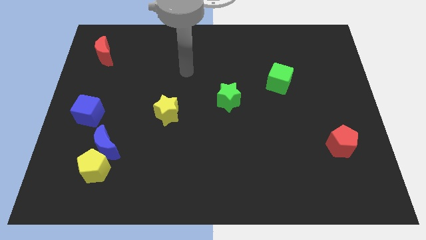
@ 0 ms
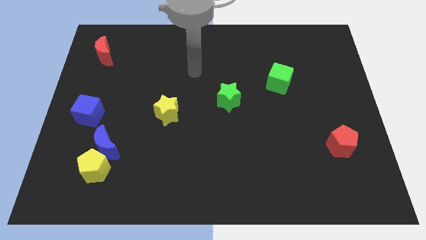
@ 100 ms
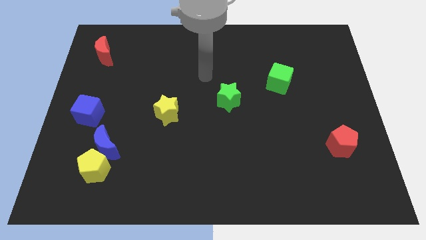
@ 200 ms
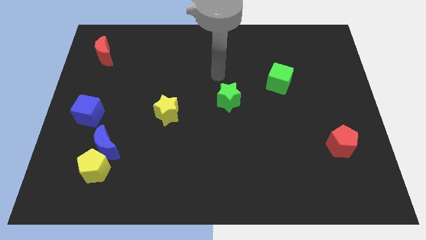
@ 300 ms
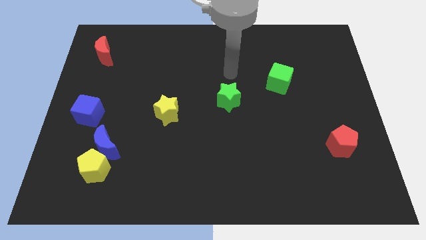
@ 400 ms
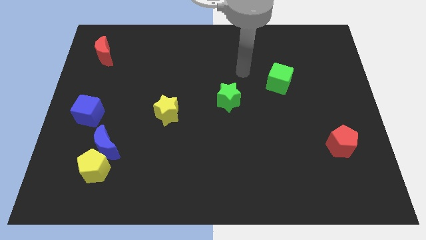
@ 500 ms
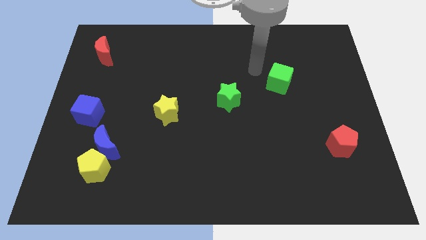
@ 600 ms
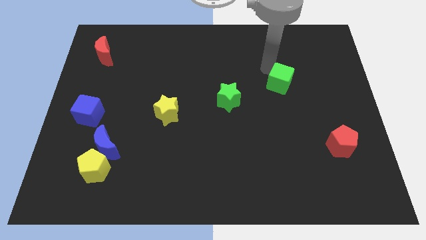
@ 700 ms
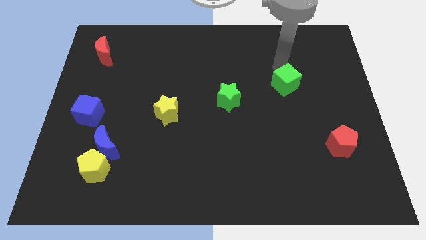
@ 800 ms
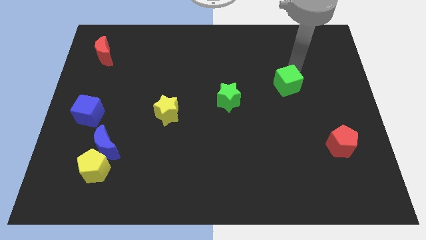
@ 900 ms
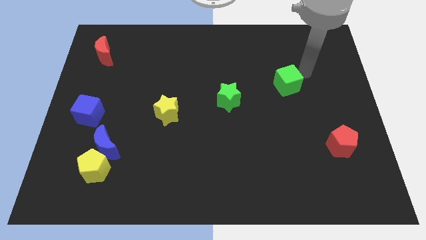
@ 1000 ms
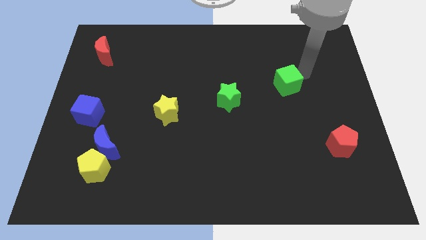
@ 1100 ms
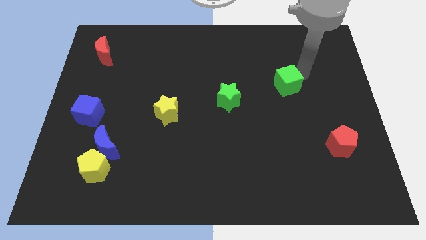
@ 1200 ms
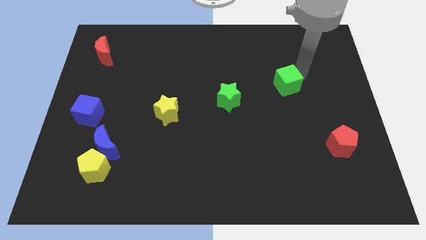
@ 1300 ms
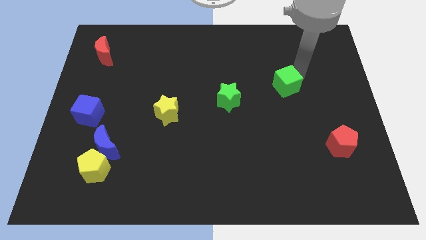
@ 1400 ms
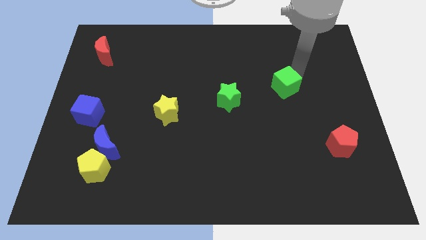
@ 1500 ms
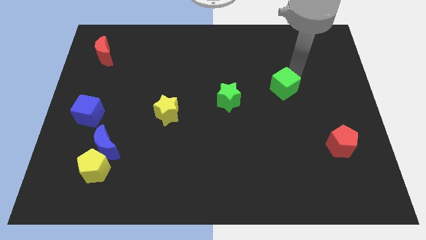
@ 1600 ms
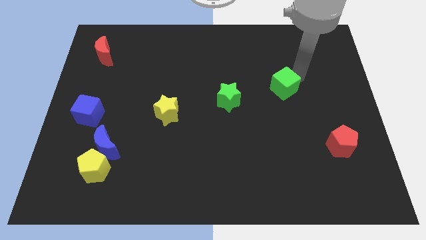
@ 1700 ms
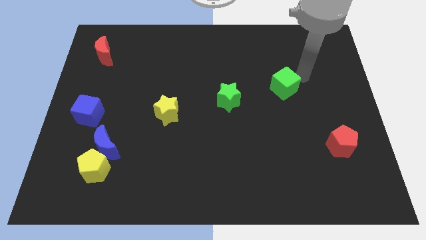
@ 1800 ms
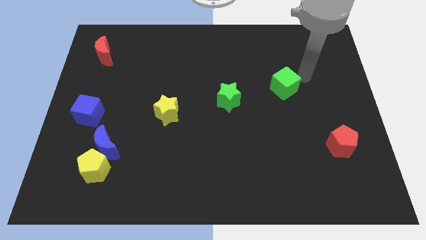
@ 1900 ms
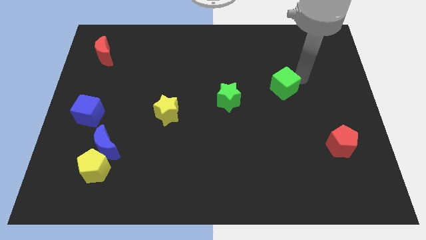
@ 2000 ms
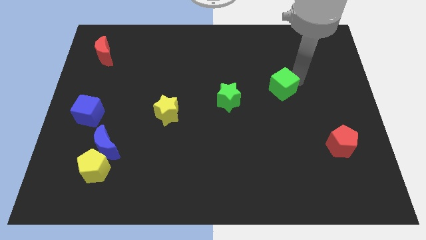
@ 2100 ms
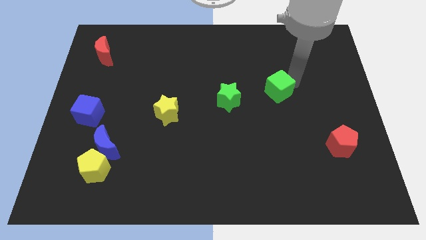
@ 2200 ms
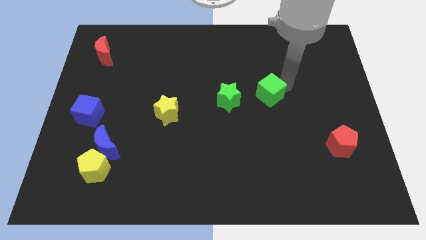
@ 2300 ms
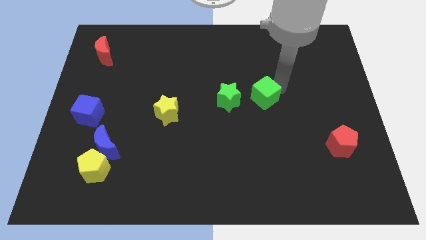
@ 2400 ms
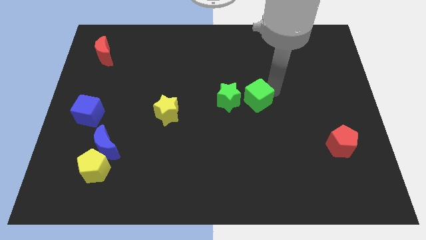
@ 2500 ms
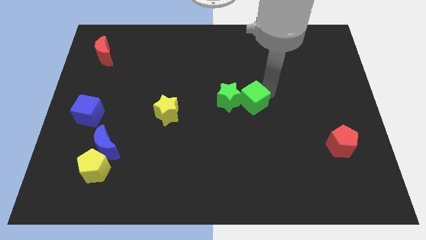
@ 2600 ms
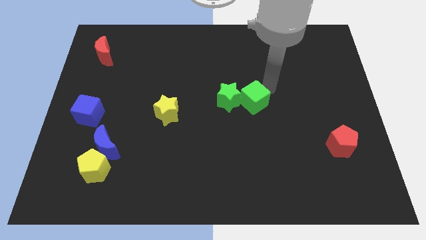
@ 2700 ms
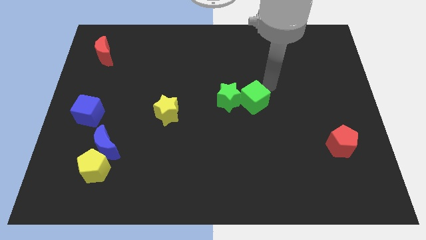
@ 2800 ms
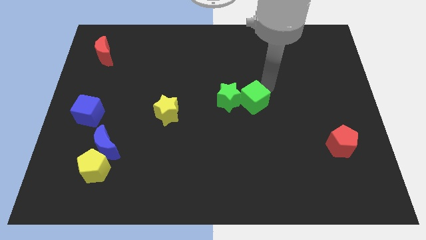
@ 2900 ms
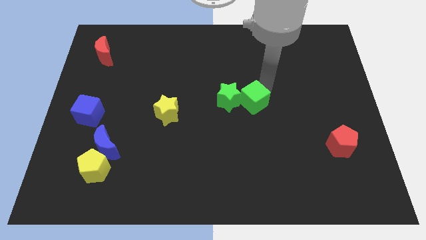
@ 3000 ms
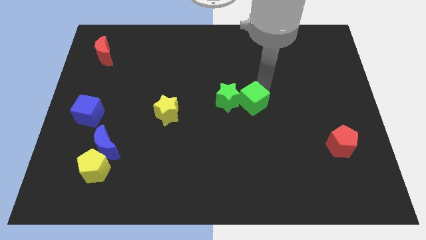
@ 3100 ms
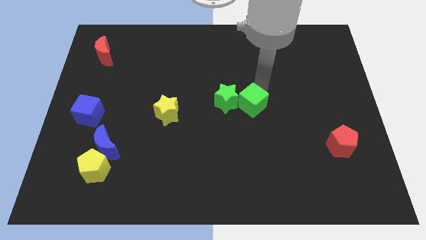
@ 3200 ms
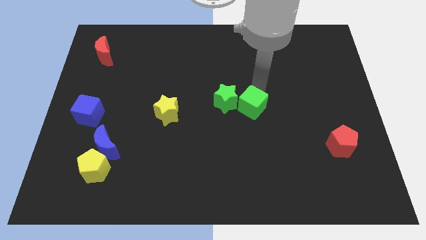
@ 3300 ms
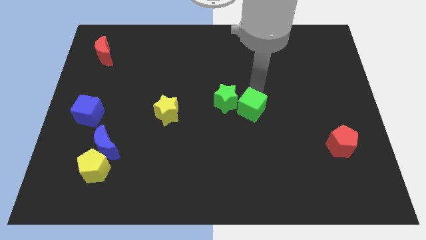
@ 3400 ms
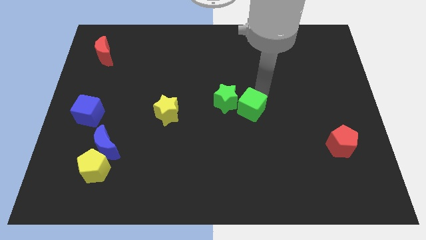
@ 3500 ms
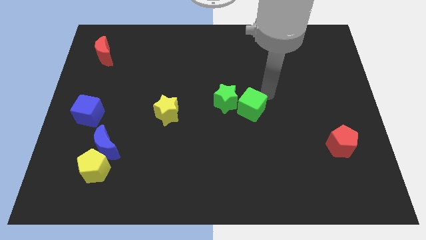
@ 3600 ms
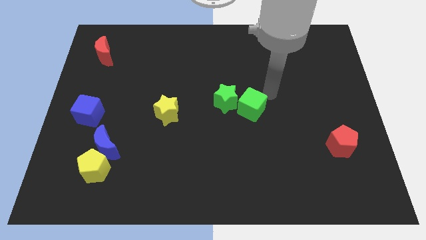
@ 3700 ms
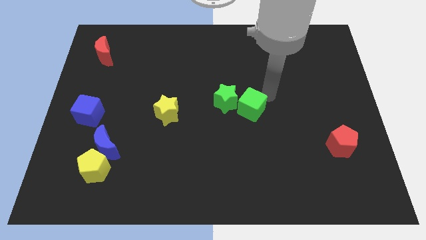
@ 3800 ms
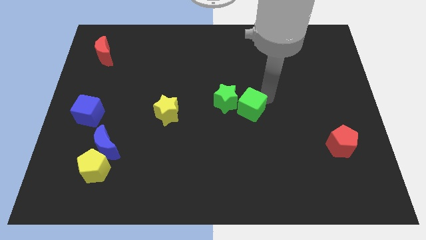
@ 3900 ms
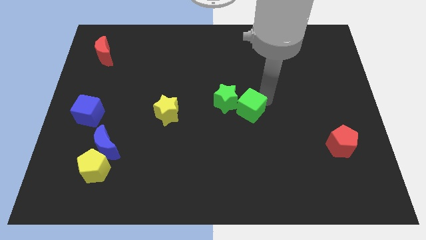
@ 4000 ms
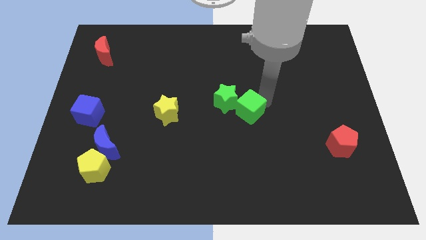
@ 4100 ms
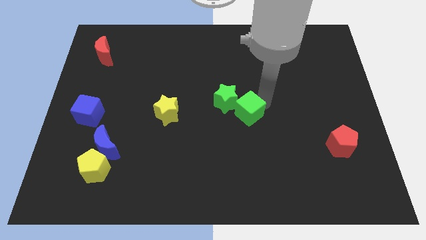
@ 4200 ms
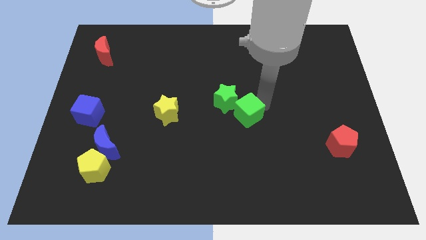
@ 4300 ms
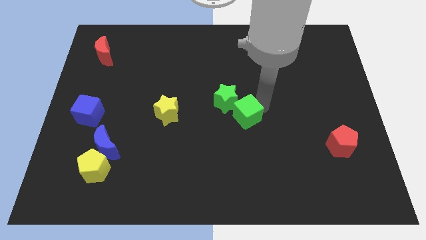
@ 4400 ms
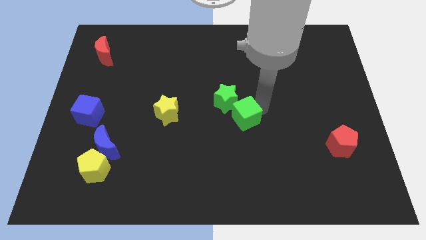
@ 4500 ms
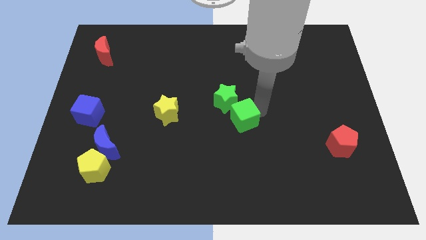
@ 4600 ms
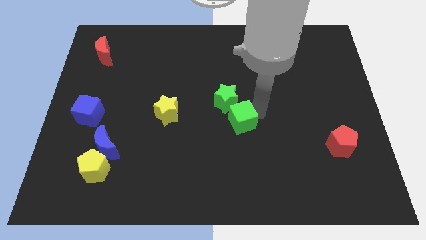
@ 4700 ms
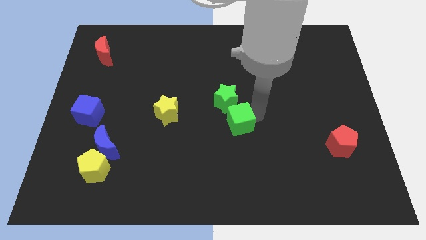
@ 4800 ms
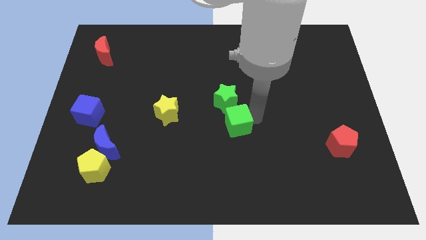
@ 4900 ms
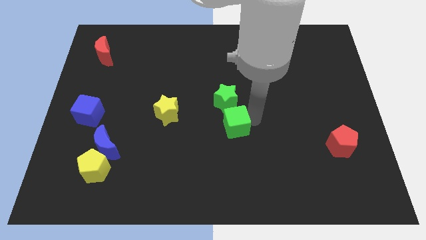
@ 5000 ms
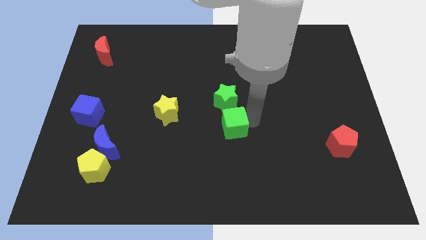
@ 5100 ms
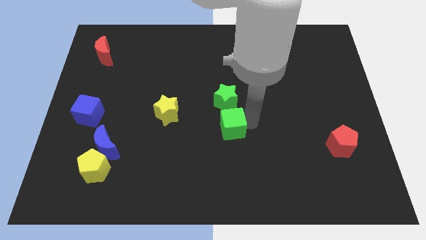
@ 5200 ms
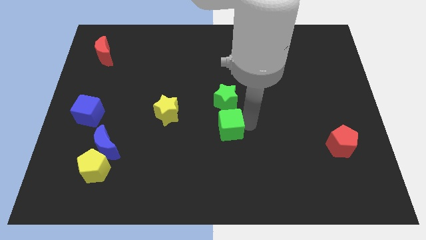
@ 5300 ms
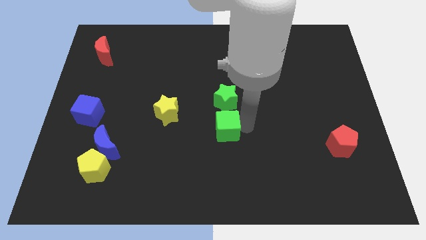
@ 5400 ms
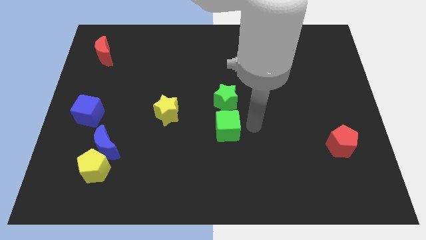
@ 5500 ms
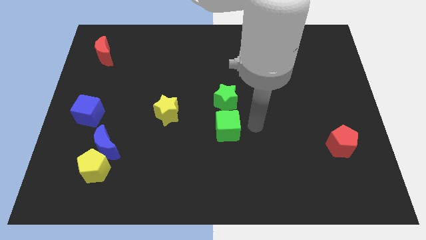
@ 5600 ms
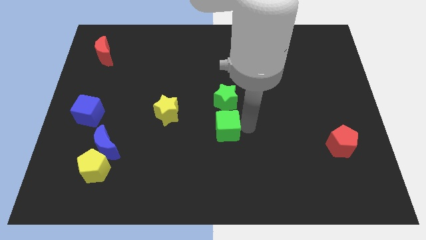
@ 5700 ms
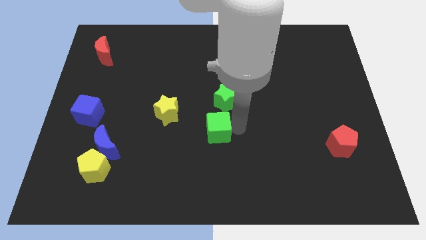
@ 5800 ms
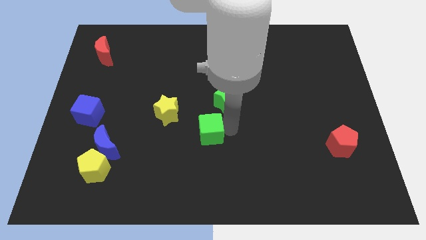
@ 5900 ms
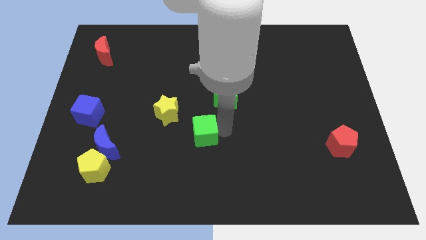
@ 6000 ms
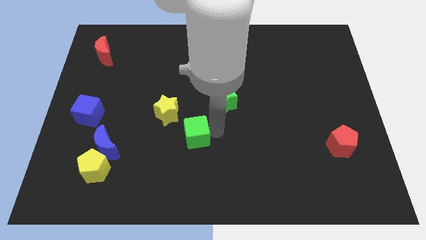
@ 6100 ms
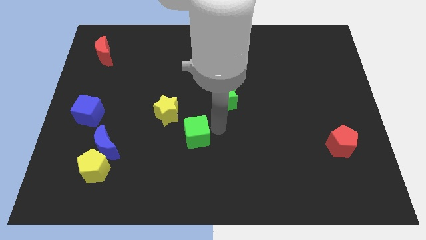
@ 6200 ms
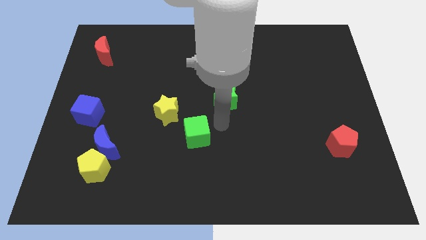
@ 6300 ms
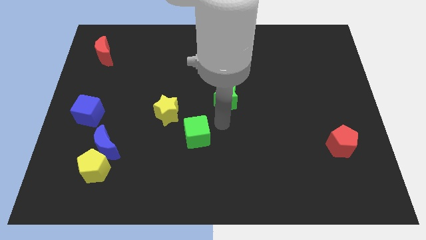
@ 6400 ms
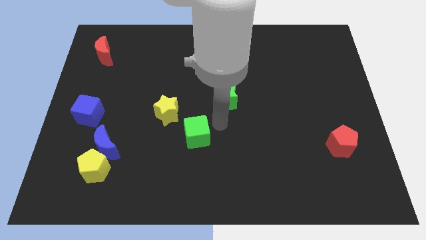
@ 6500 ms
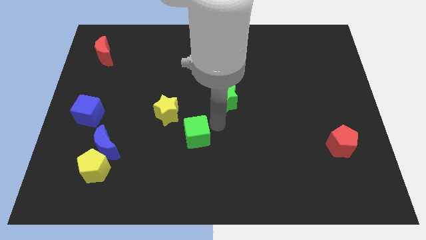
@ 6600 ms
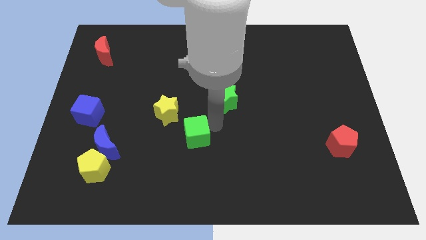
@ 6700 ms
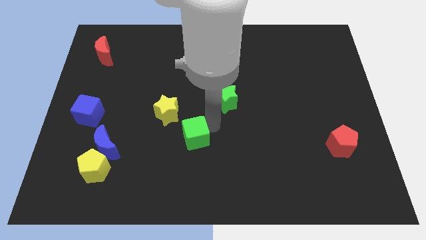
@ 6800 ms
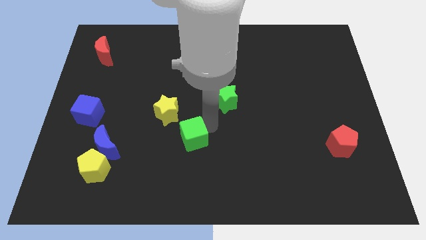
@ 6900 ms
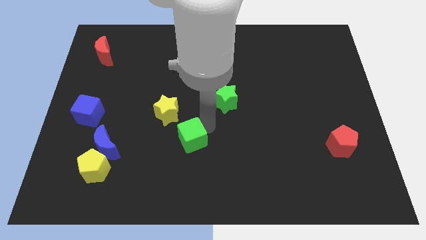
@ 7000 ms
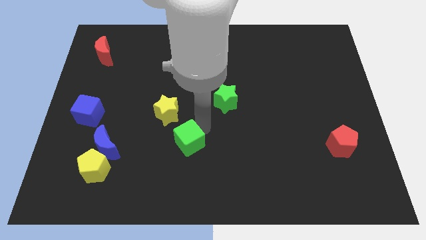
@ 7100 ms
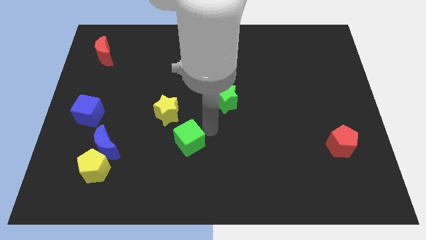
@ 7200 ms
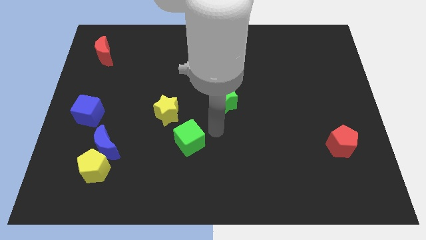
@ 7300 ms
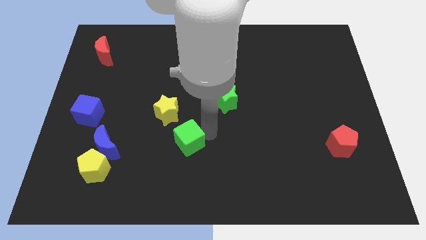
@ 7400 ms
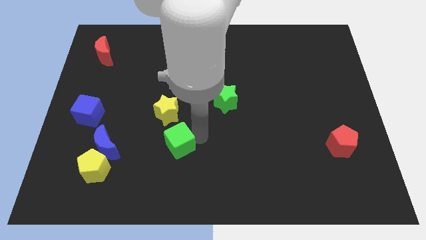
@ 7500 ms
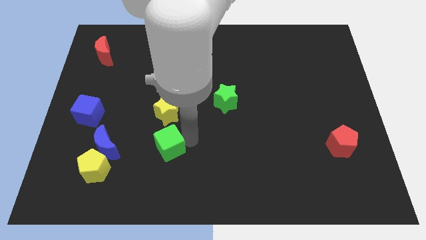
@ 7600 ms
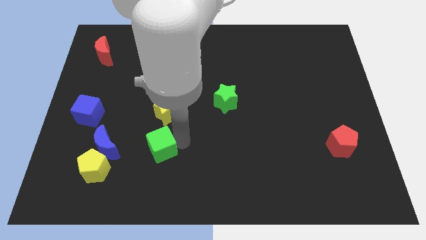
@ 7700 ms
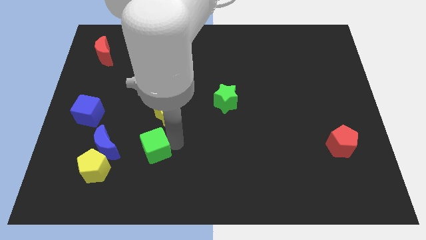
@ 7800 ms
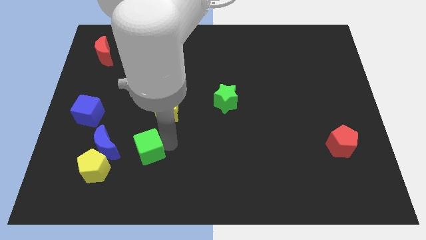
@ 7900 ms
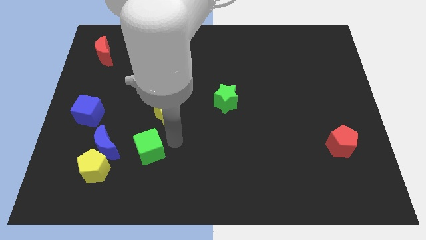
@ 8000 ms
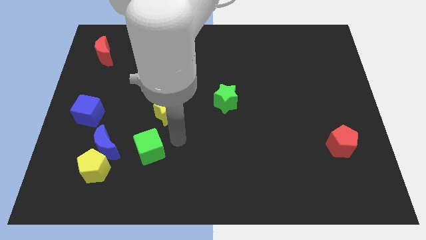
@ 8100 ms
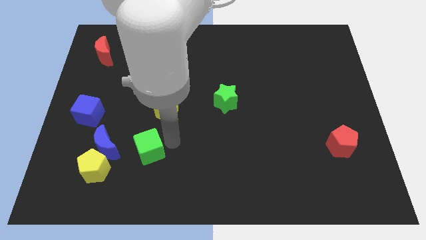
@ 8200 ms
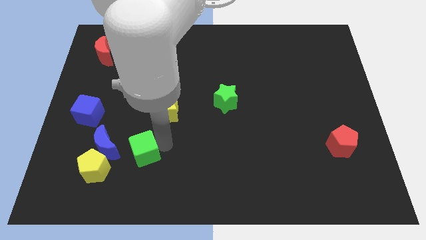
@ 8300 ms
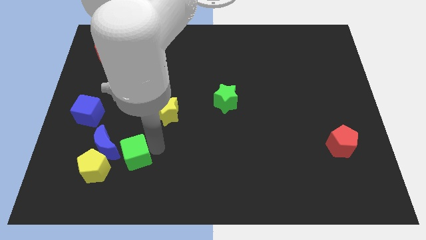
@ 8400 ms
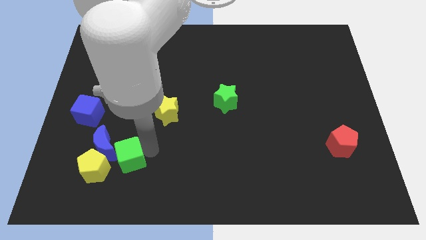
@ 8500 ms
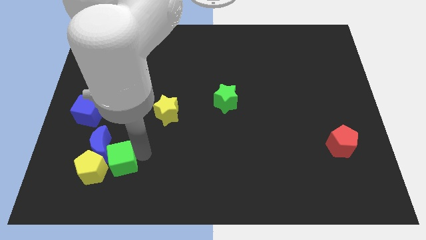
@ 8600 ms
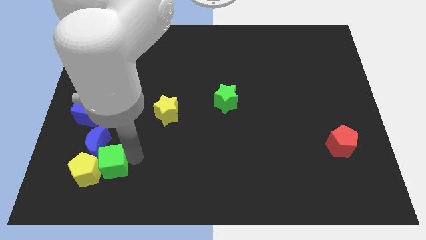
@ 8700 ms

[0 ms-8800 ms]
move the green cube towards the yellow pentagon
